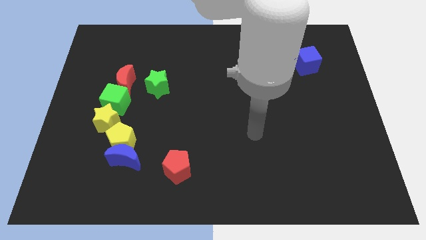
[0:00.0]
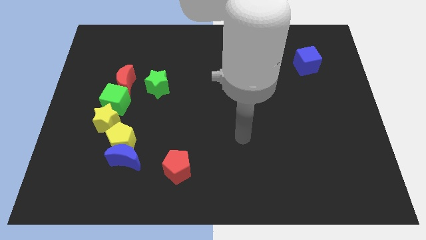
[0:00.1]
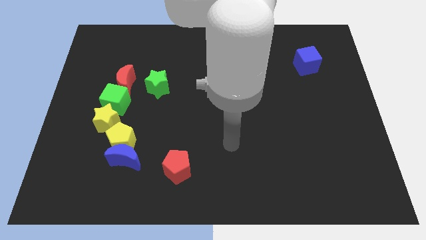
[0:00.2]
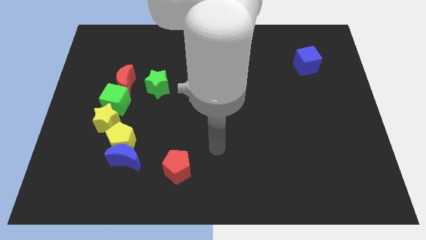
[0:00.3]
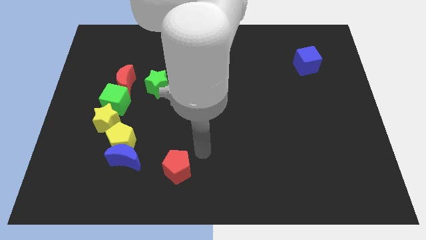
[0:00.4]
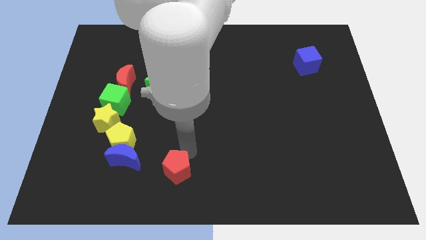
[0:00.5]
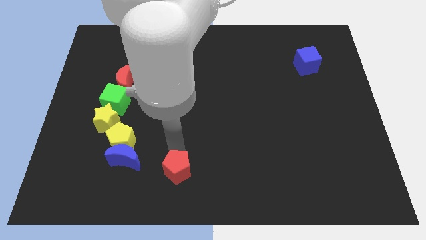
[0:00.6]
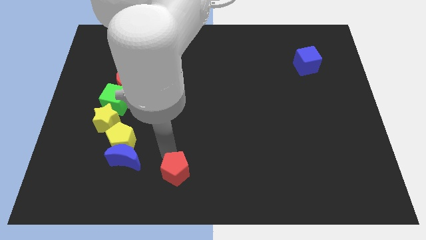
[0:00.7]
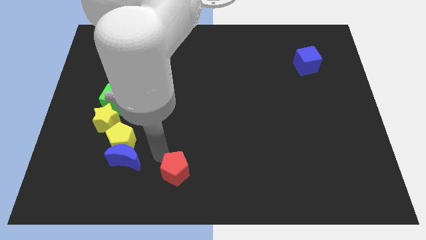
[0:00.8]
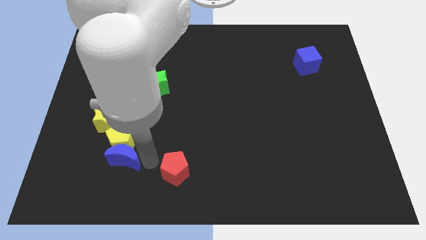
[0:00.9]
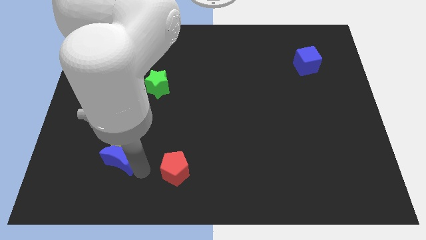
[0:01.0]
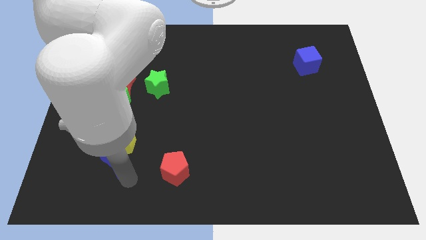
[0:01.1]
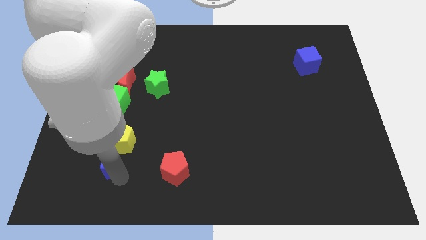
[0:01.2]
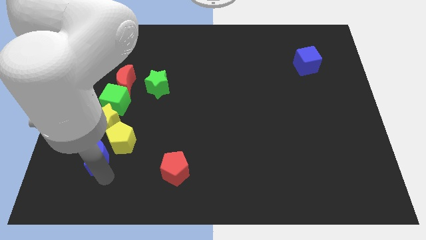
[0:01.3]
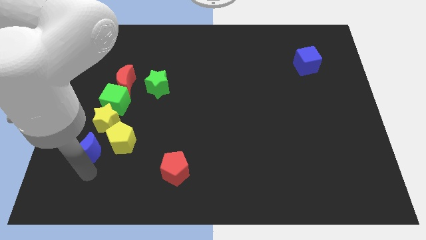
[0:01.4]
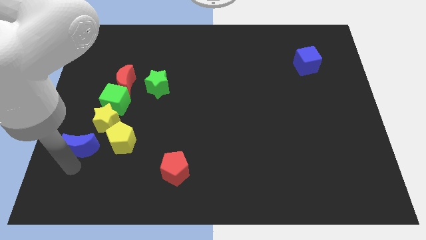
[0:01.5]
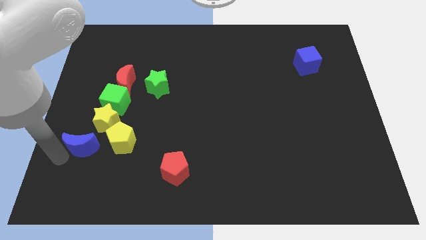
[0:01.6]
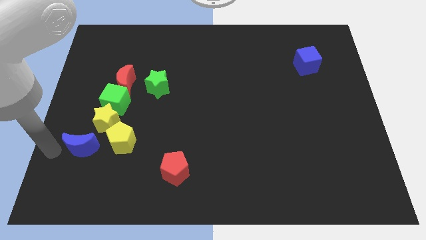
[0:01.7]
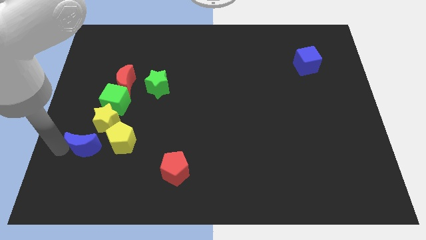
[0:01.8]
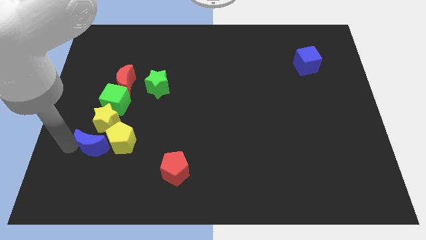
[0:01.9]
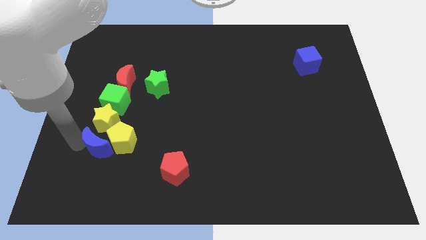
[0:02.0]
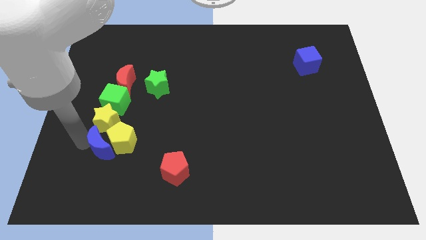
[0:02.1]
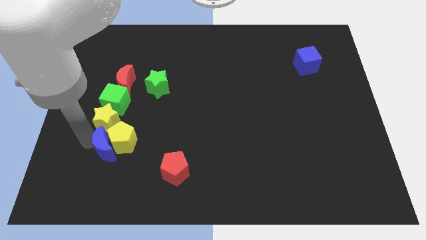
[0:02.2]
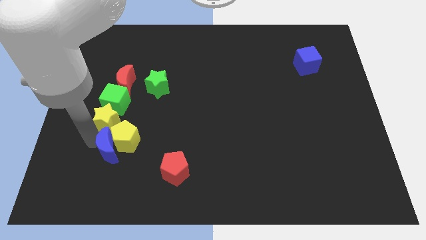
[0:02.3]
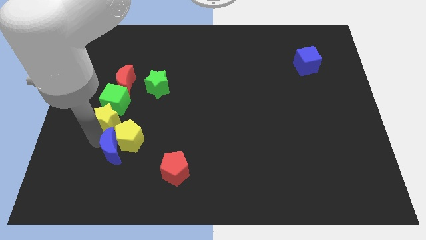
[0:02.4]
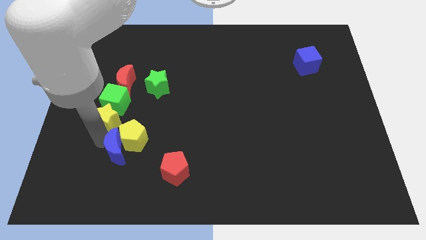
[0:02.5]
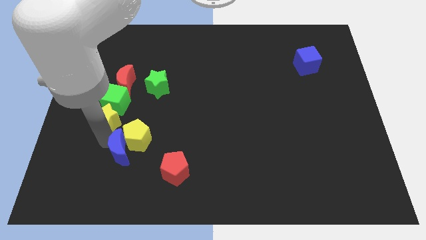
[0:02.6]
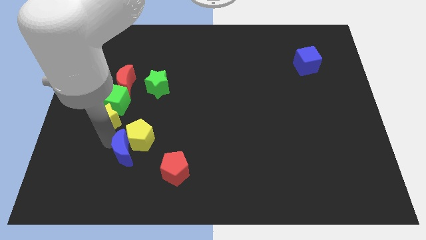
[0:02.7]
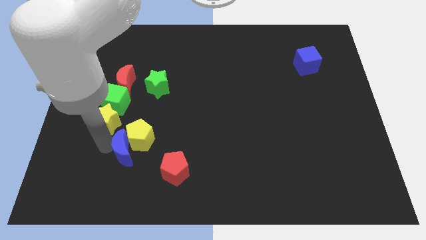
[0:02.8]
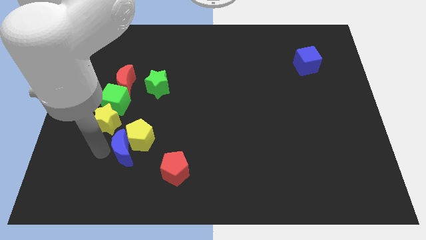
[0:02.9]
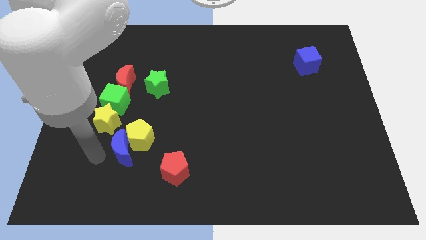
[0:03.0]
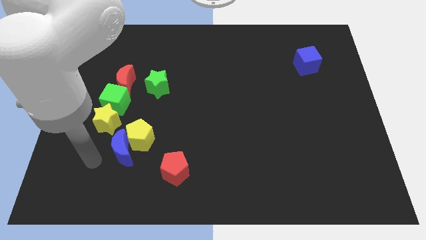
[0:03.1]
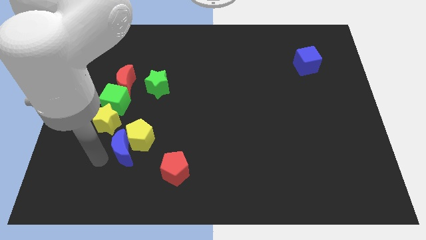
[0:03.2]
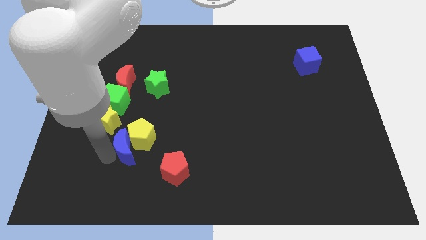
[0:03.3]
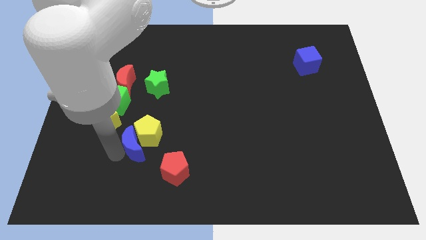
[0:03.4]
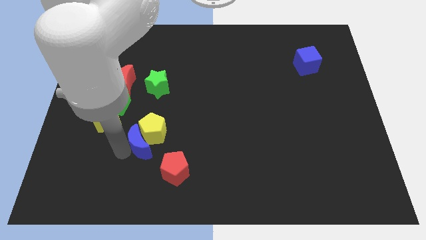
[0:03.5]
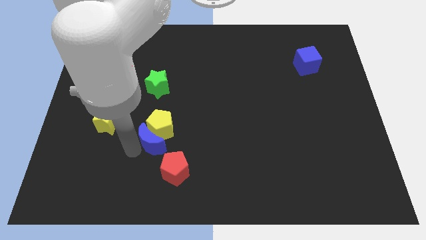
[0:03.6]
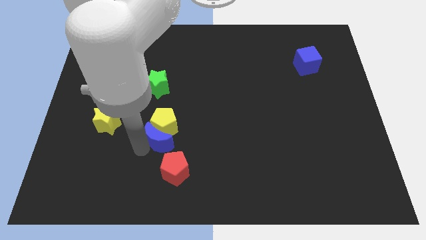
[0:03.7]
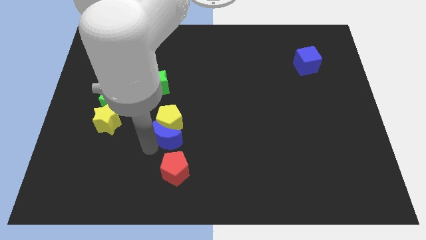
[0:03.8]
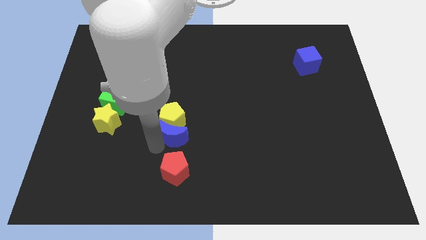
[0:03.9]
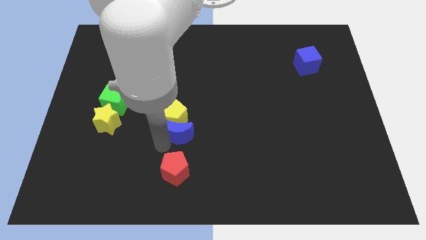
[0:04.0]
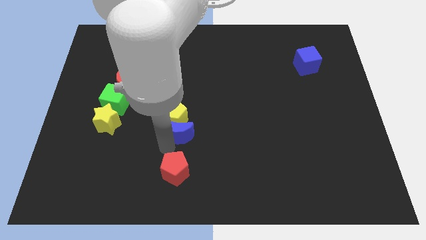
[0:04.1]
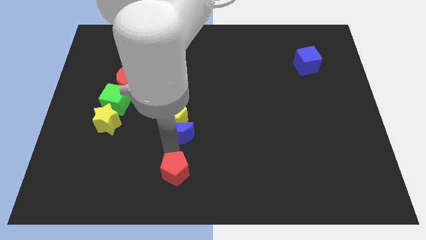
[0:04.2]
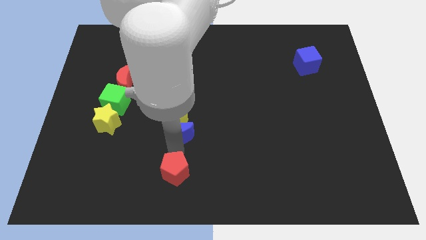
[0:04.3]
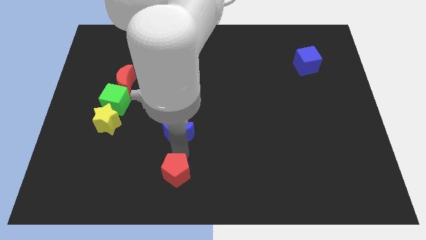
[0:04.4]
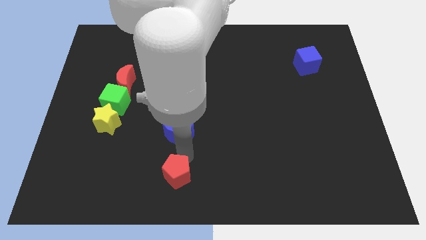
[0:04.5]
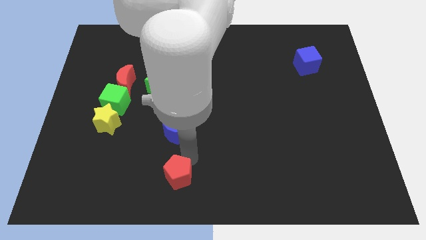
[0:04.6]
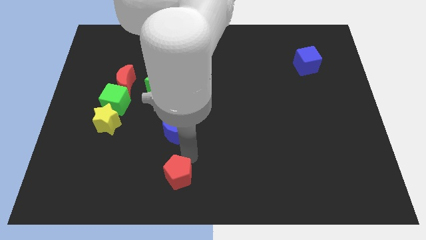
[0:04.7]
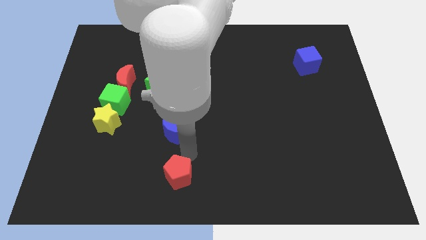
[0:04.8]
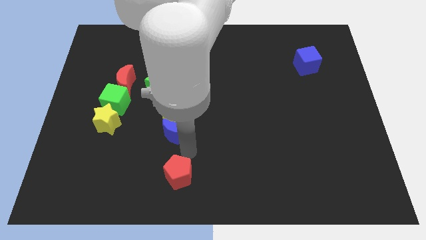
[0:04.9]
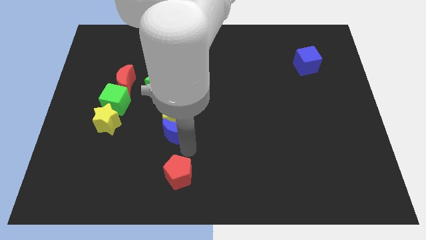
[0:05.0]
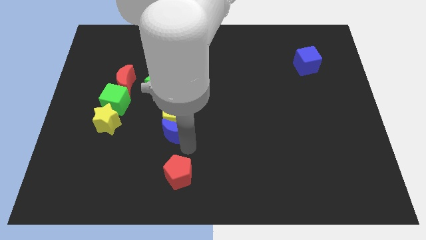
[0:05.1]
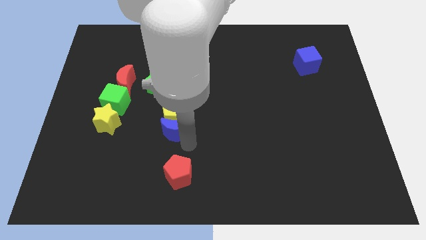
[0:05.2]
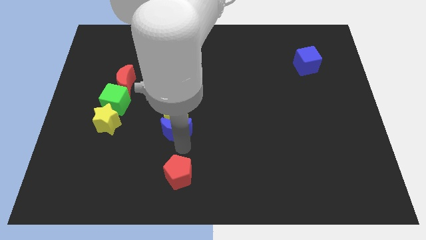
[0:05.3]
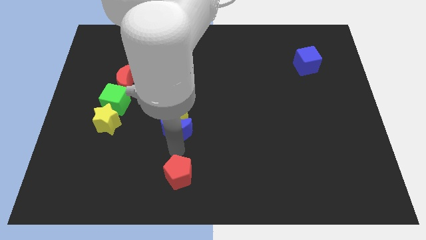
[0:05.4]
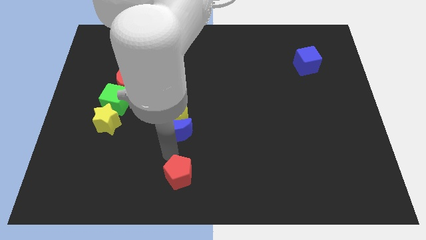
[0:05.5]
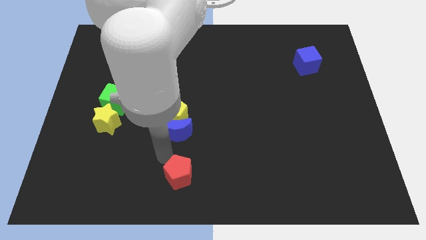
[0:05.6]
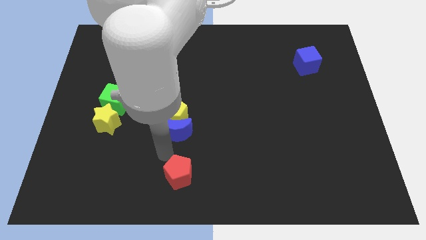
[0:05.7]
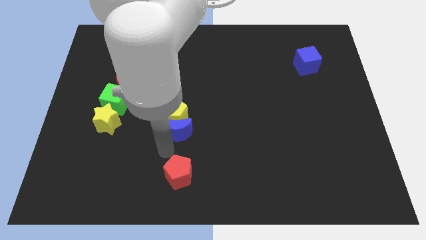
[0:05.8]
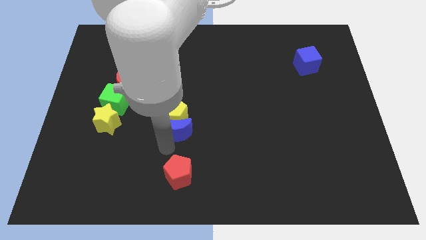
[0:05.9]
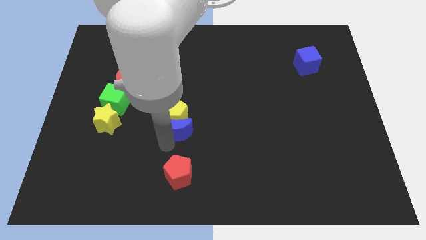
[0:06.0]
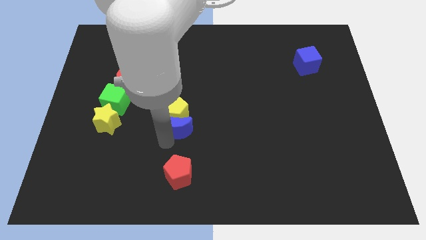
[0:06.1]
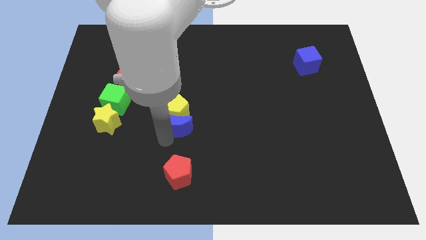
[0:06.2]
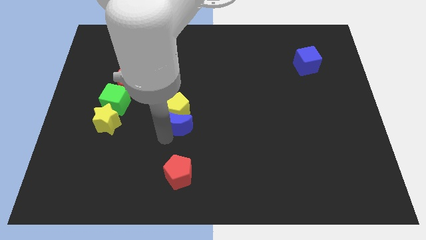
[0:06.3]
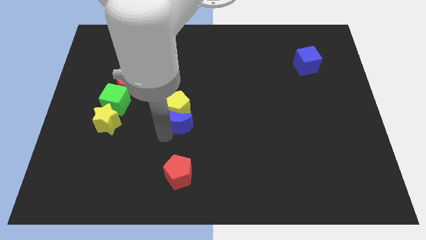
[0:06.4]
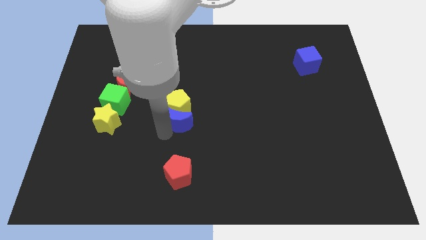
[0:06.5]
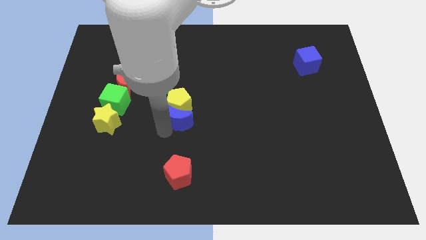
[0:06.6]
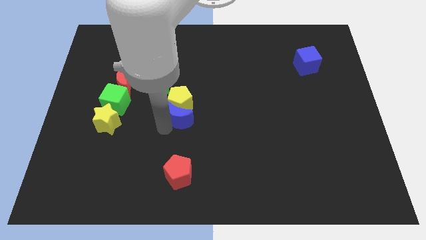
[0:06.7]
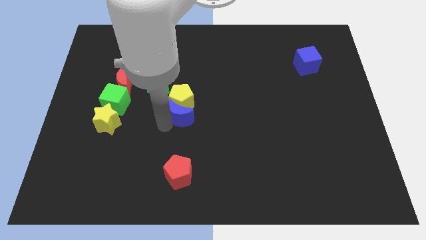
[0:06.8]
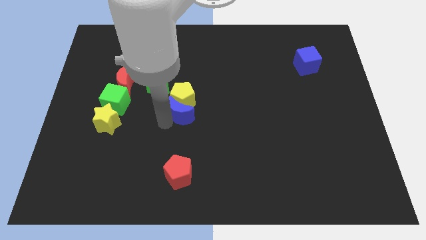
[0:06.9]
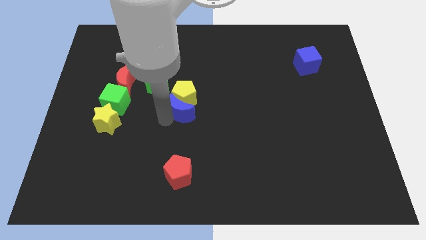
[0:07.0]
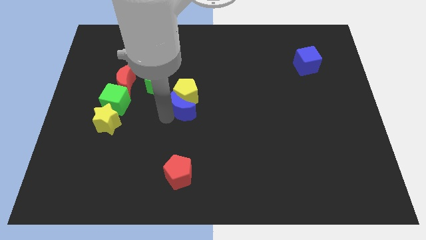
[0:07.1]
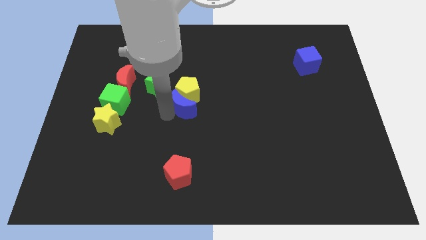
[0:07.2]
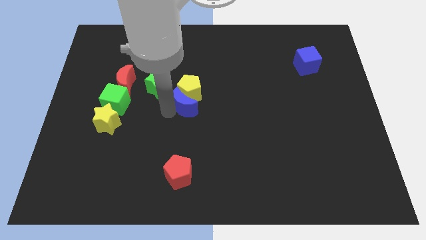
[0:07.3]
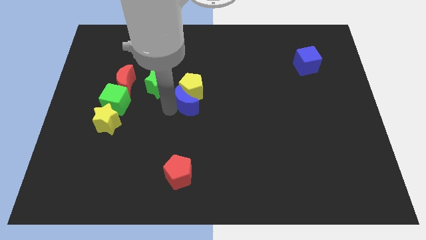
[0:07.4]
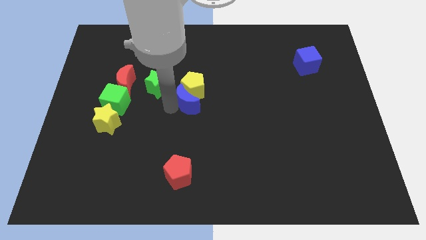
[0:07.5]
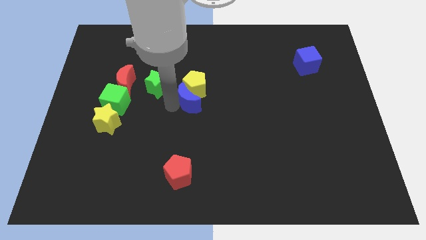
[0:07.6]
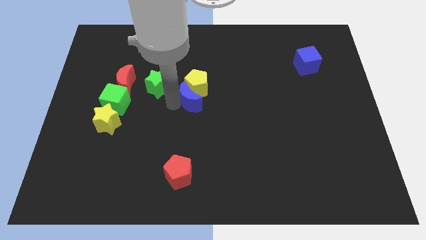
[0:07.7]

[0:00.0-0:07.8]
push the blue moon diagonally up and to the right
